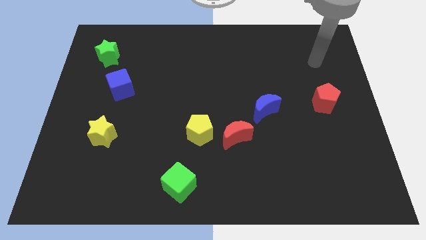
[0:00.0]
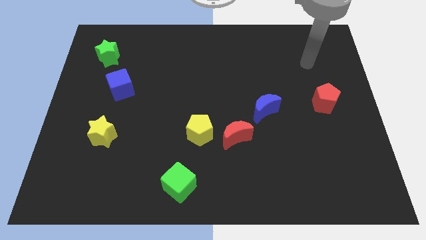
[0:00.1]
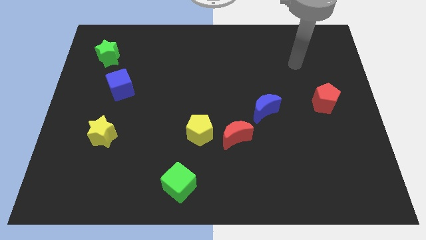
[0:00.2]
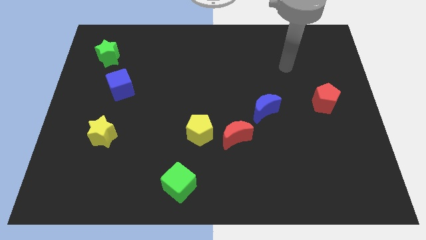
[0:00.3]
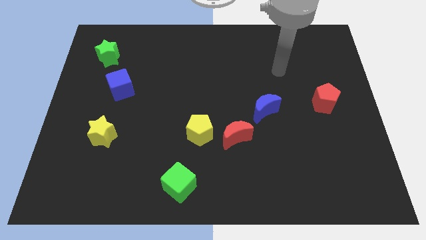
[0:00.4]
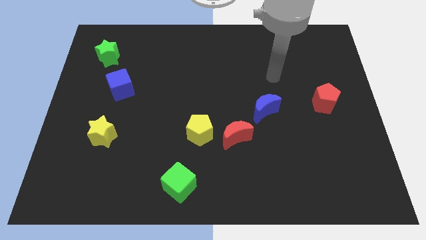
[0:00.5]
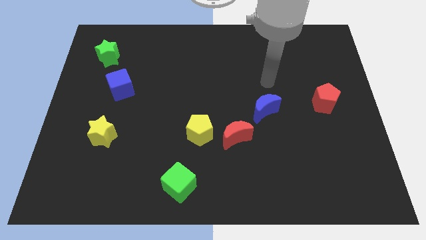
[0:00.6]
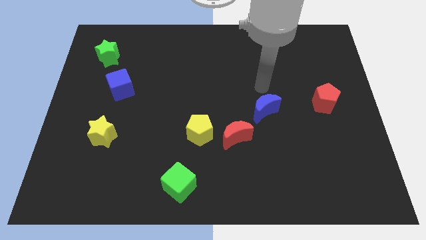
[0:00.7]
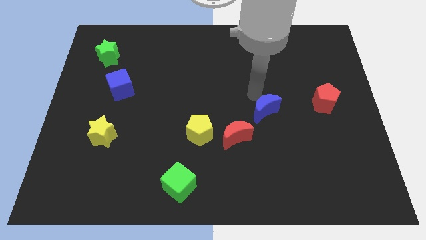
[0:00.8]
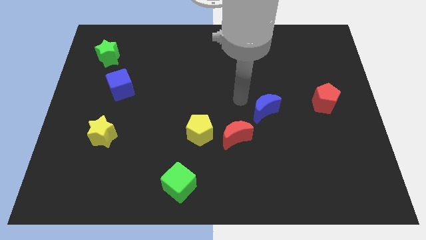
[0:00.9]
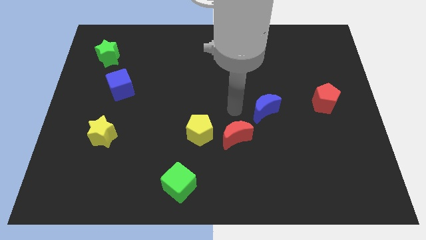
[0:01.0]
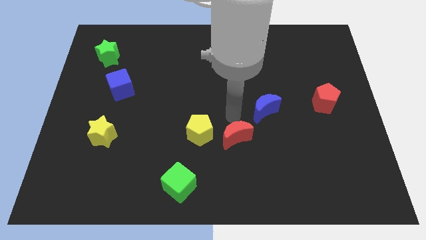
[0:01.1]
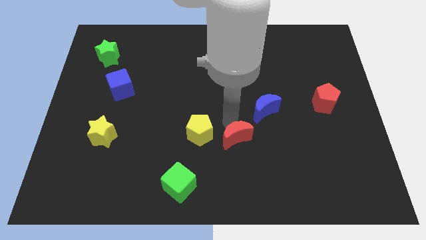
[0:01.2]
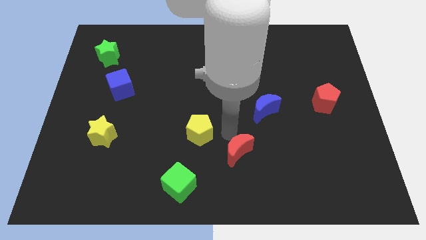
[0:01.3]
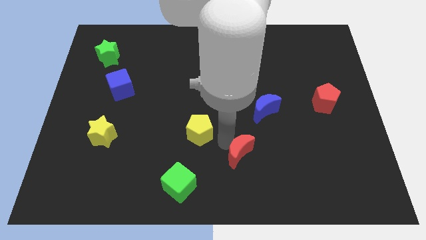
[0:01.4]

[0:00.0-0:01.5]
separate the yellow pentagon from the red moon

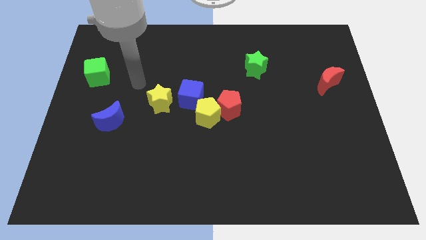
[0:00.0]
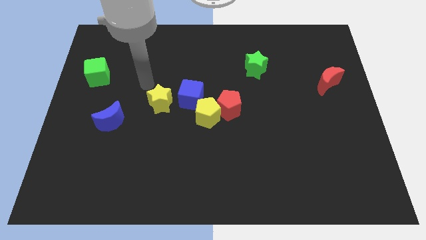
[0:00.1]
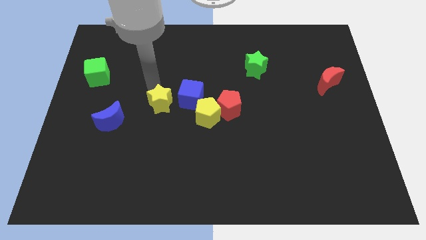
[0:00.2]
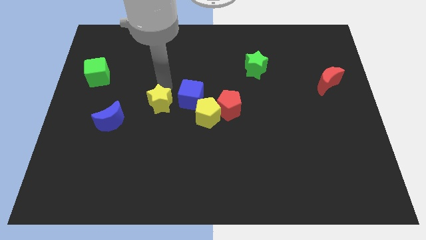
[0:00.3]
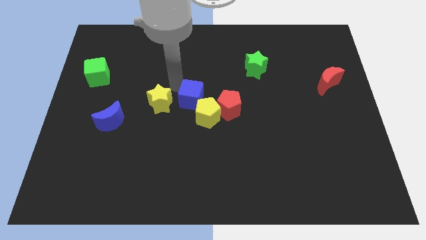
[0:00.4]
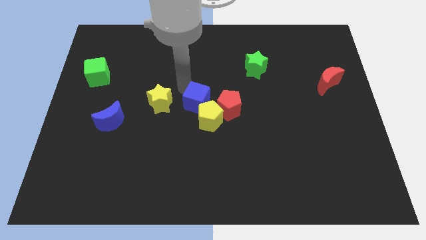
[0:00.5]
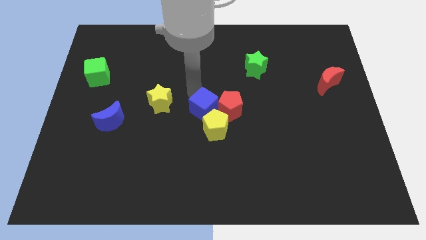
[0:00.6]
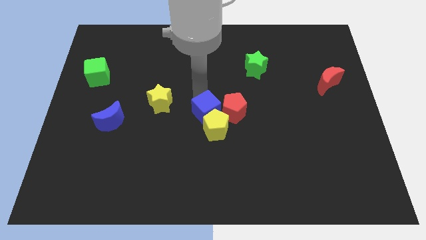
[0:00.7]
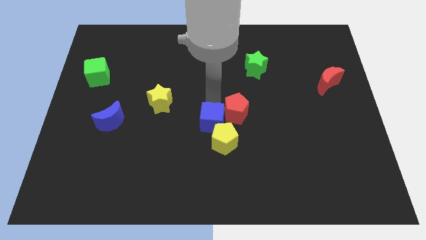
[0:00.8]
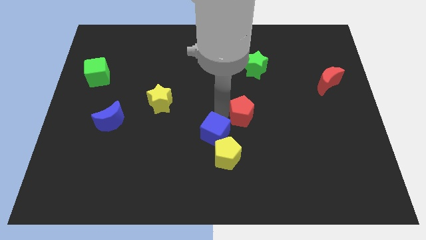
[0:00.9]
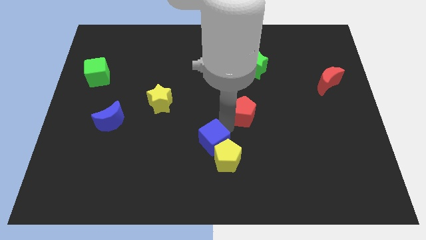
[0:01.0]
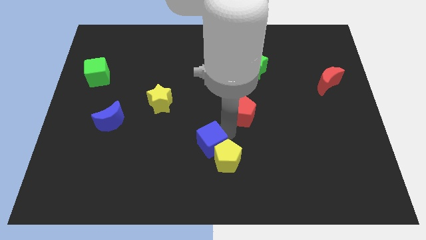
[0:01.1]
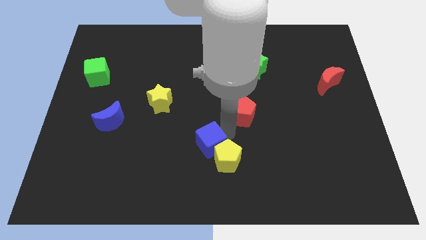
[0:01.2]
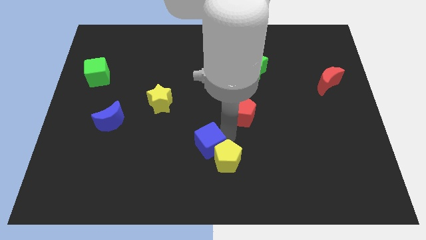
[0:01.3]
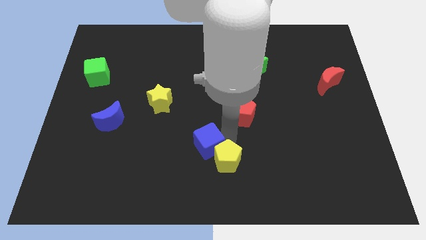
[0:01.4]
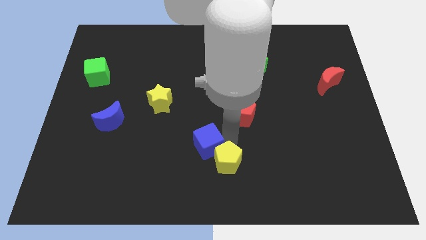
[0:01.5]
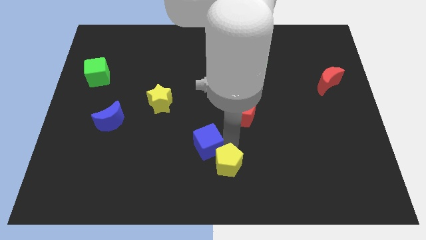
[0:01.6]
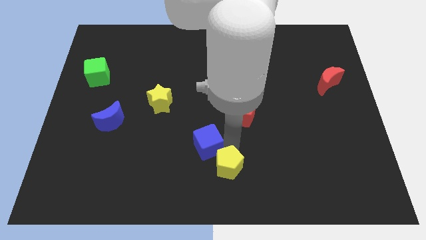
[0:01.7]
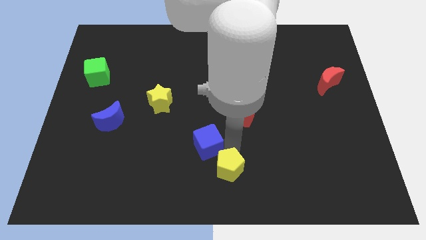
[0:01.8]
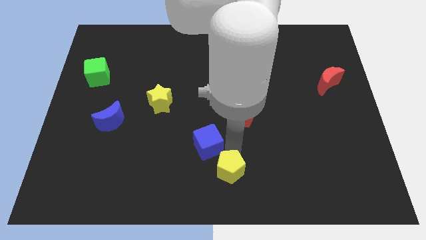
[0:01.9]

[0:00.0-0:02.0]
separate the yellow pentagon from the red pentagon and blue cube

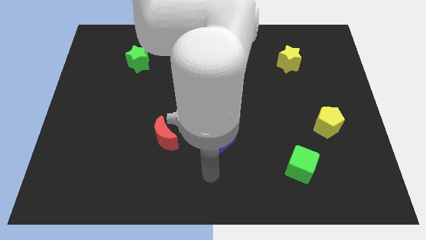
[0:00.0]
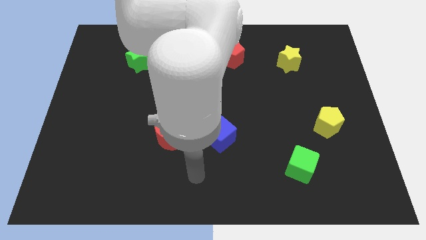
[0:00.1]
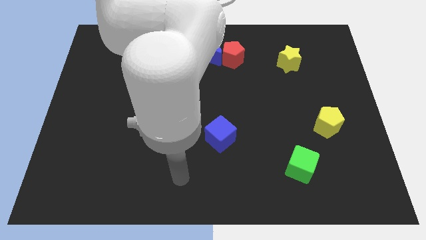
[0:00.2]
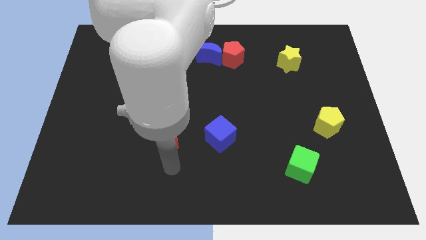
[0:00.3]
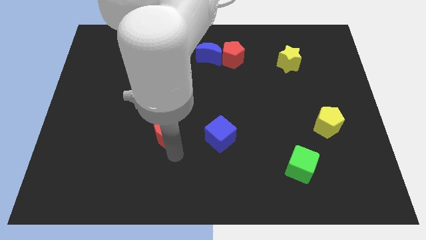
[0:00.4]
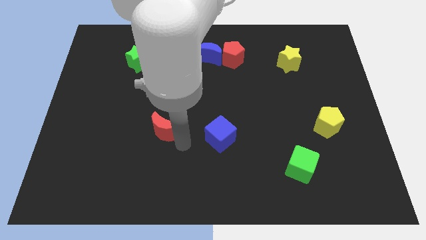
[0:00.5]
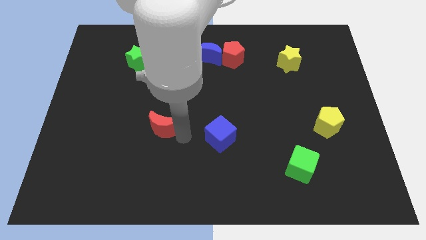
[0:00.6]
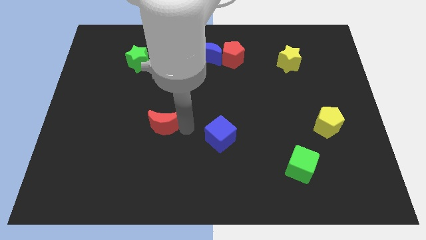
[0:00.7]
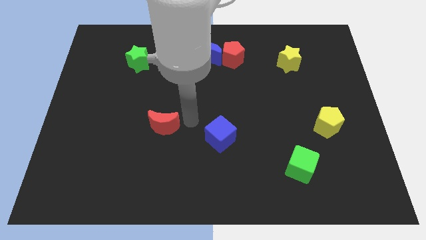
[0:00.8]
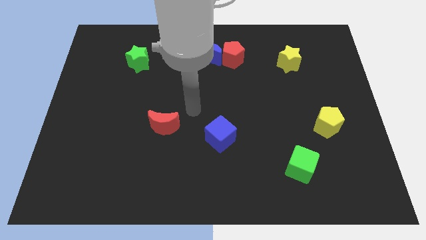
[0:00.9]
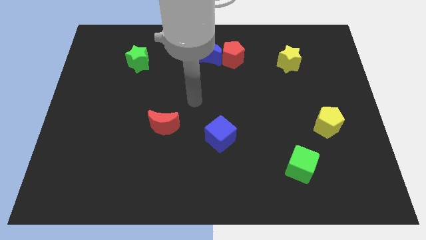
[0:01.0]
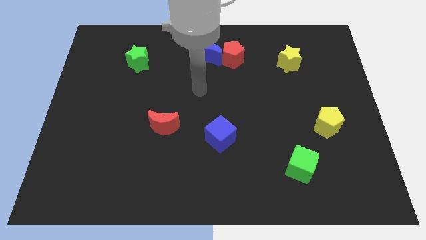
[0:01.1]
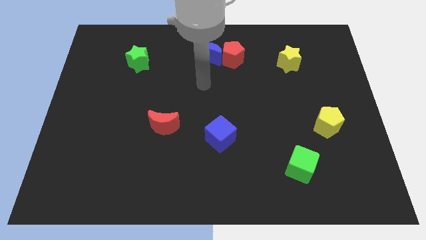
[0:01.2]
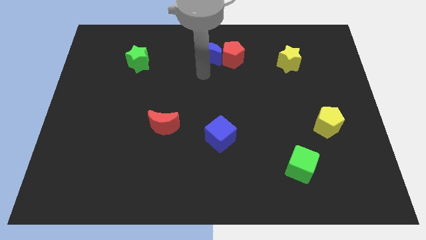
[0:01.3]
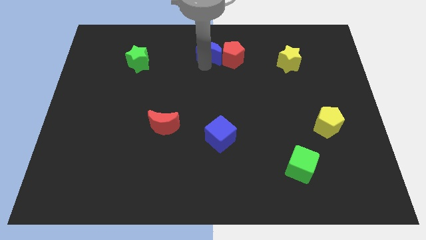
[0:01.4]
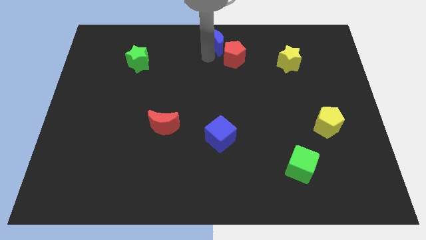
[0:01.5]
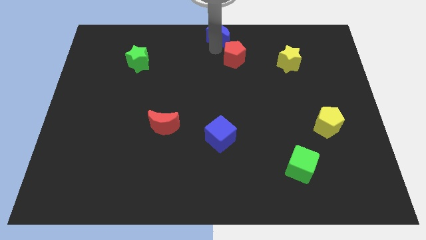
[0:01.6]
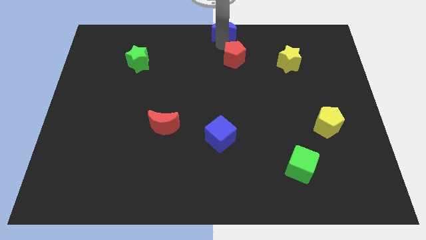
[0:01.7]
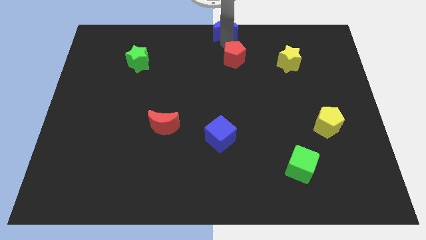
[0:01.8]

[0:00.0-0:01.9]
move the red pentagon away from the blue moon

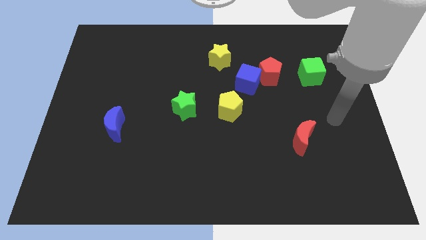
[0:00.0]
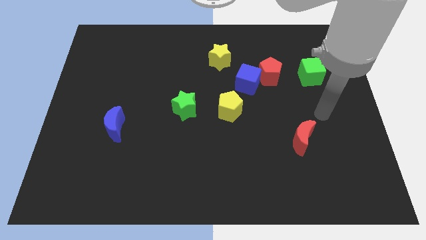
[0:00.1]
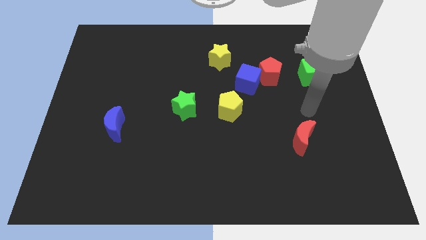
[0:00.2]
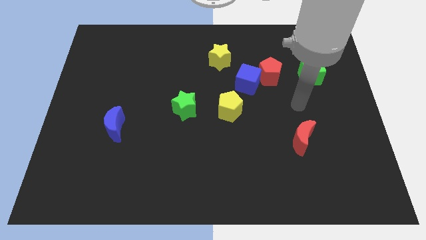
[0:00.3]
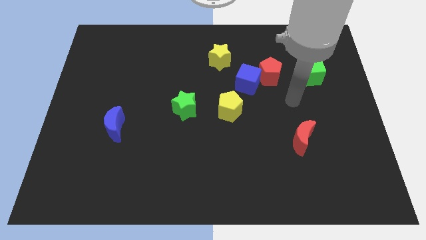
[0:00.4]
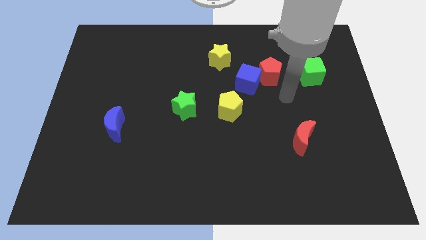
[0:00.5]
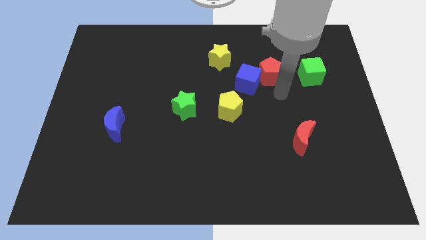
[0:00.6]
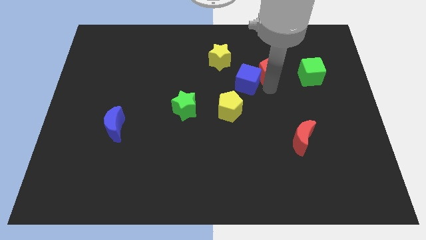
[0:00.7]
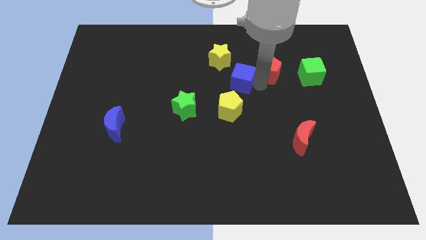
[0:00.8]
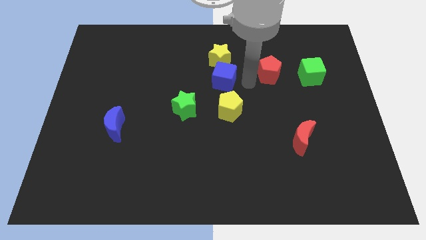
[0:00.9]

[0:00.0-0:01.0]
pull the red pentagon apart from the blue cube

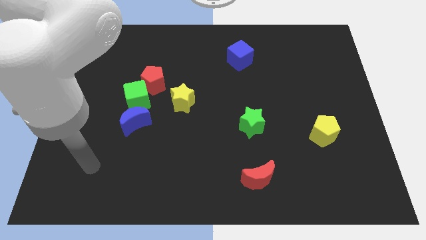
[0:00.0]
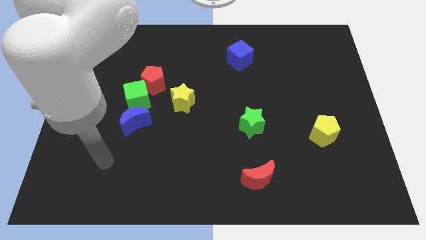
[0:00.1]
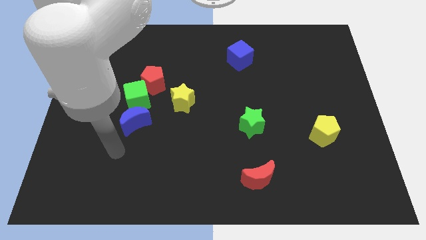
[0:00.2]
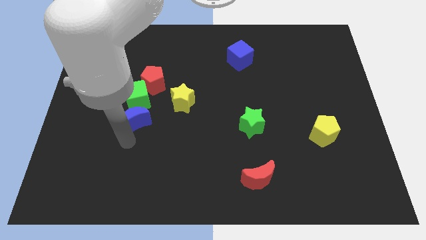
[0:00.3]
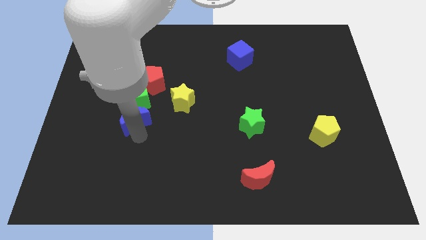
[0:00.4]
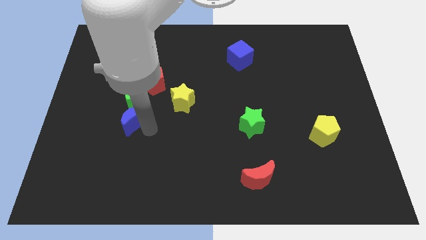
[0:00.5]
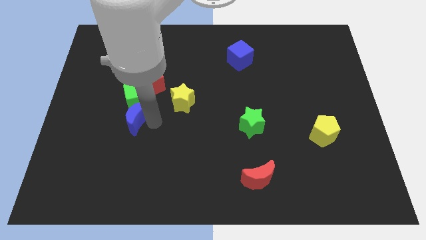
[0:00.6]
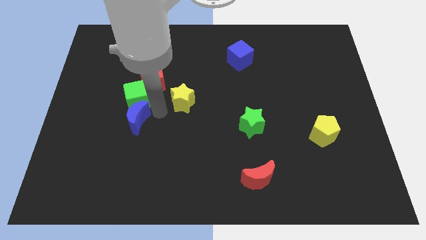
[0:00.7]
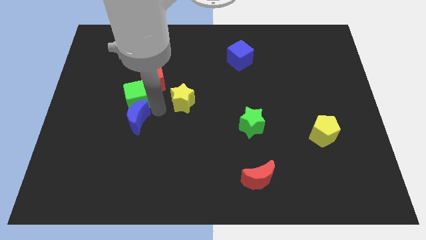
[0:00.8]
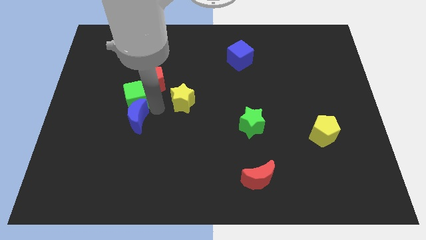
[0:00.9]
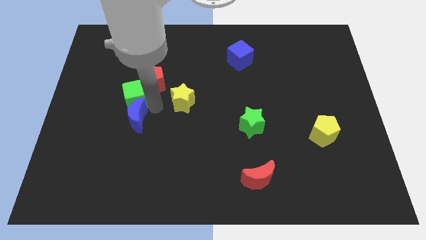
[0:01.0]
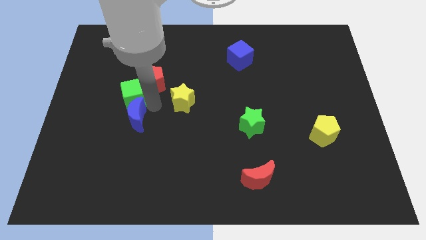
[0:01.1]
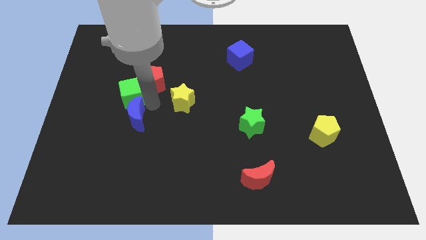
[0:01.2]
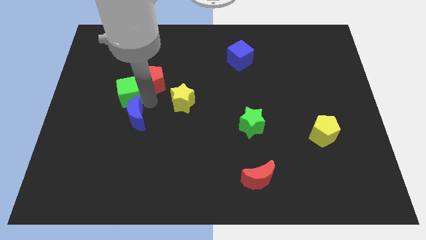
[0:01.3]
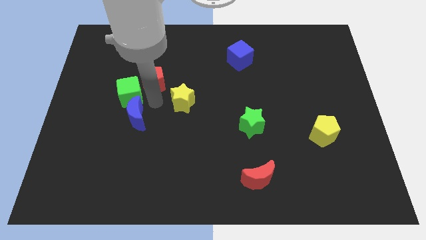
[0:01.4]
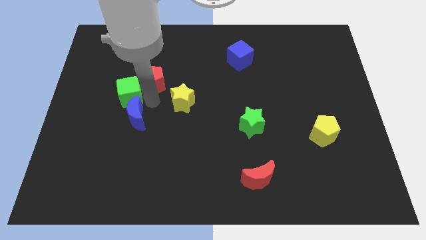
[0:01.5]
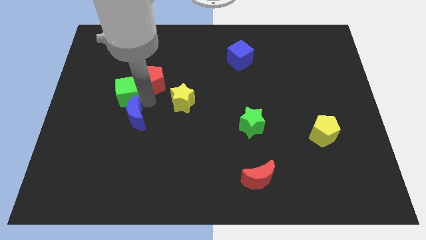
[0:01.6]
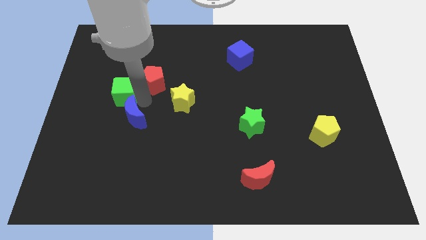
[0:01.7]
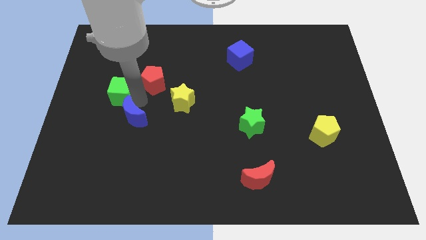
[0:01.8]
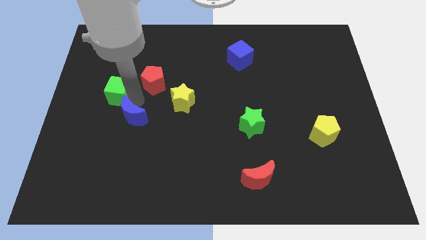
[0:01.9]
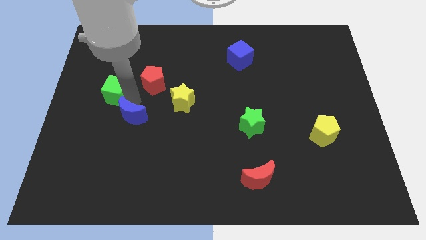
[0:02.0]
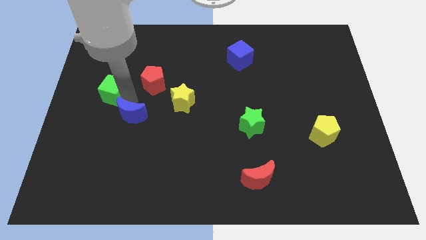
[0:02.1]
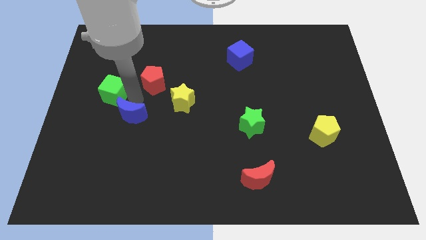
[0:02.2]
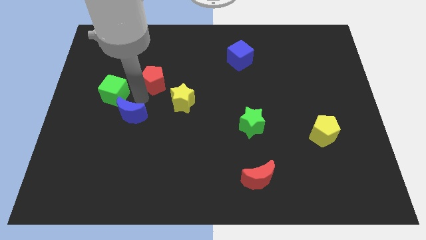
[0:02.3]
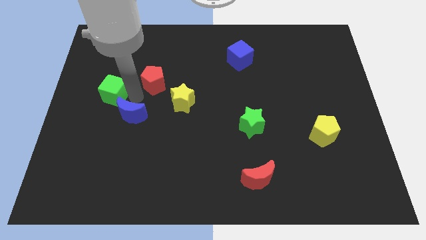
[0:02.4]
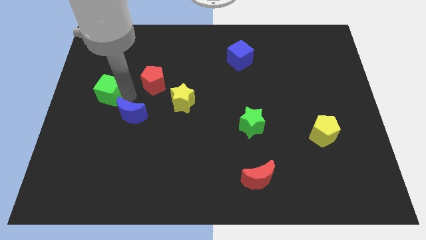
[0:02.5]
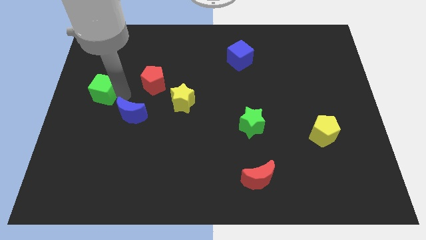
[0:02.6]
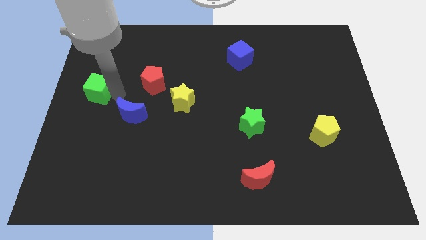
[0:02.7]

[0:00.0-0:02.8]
move the green cube away from the red pentagon and blue moon
